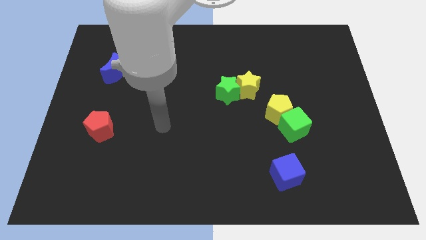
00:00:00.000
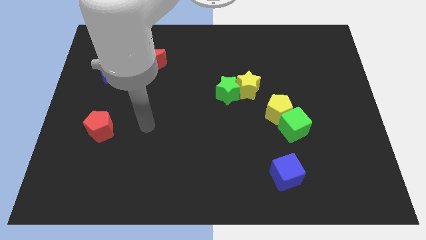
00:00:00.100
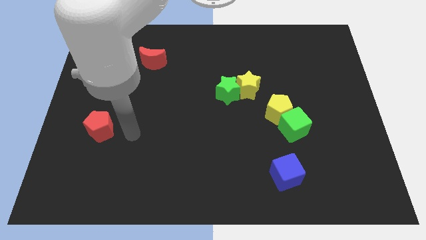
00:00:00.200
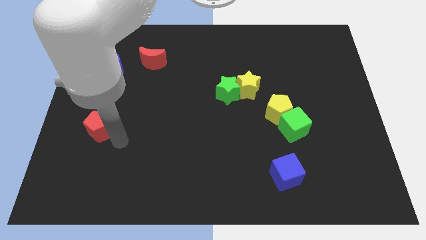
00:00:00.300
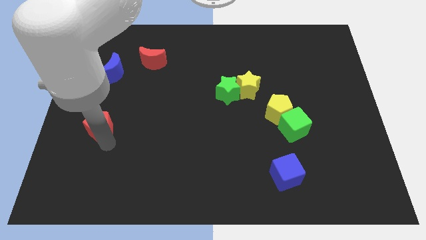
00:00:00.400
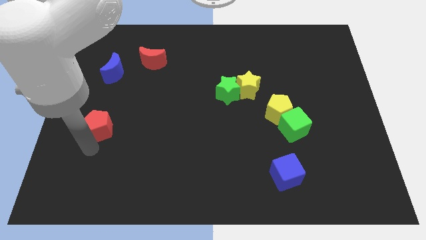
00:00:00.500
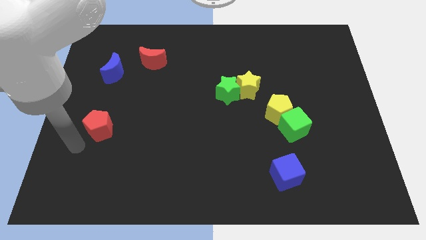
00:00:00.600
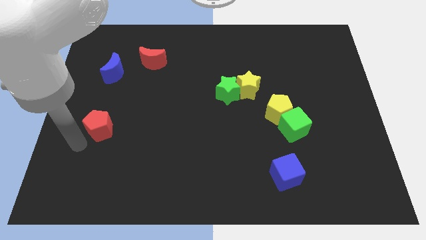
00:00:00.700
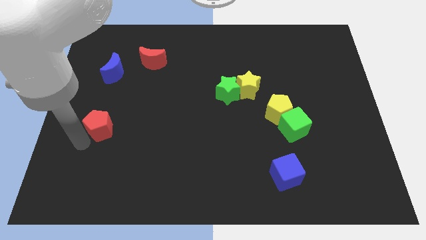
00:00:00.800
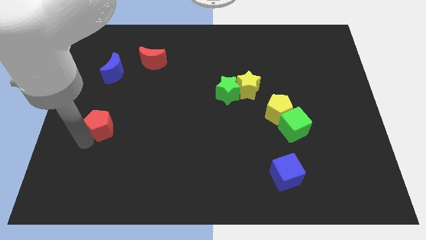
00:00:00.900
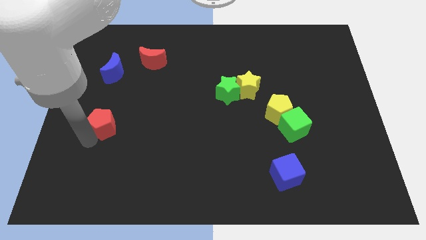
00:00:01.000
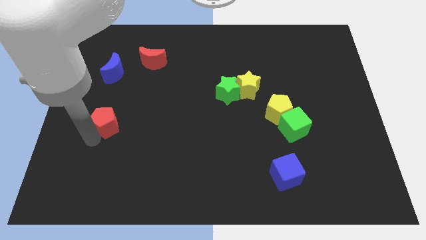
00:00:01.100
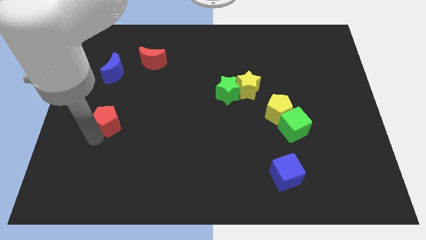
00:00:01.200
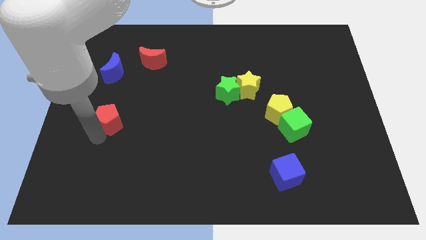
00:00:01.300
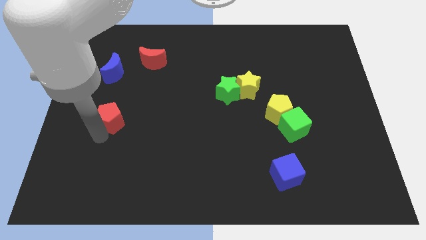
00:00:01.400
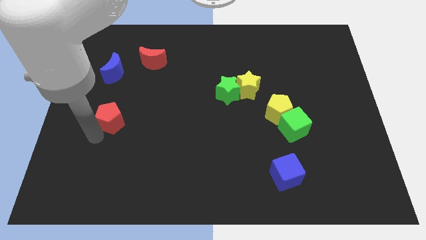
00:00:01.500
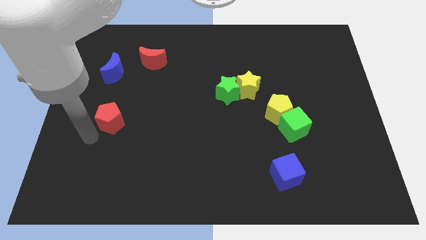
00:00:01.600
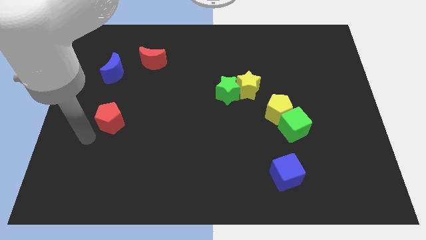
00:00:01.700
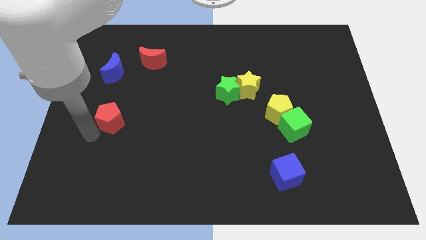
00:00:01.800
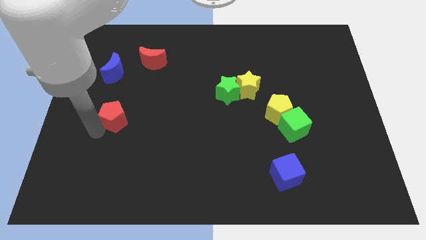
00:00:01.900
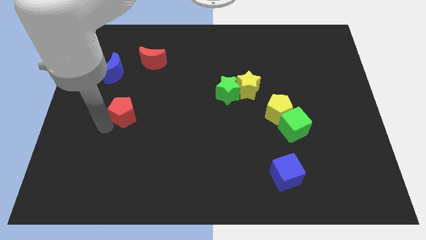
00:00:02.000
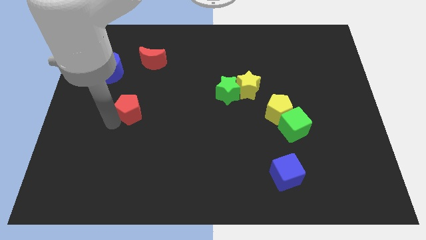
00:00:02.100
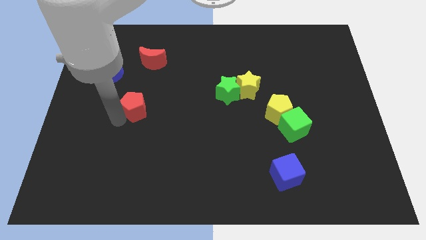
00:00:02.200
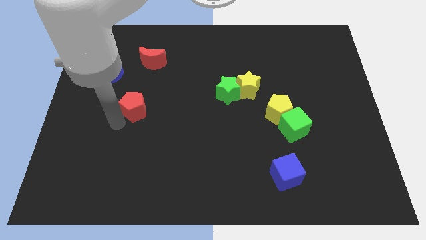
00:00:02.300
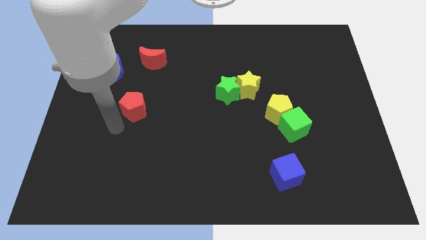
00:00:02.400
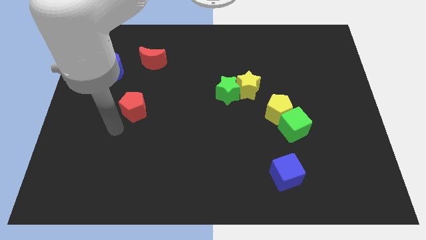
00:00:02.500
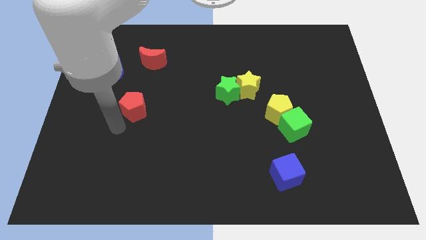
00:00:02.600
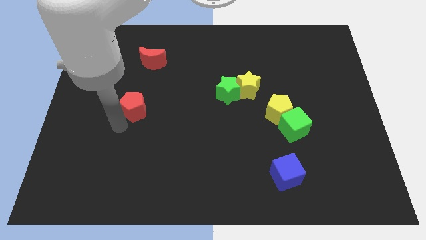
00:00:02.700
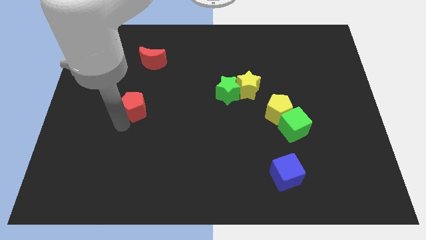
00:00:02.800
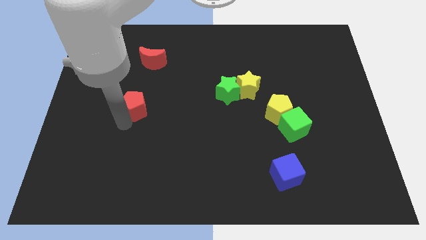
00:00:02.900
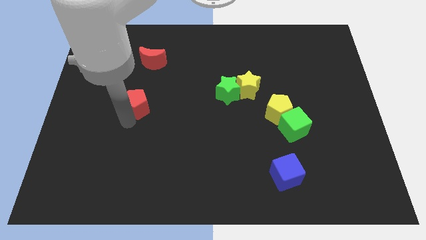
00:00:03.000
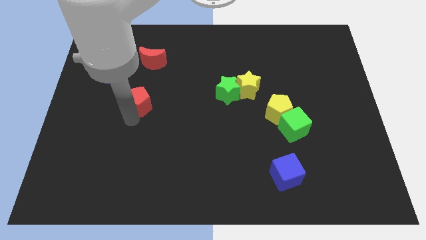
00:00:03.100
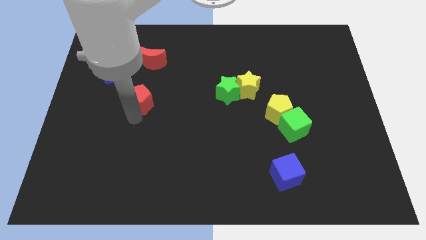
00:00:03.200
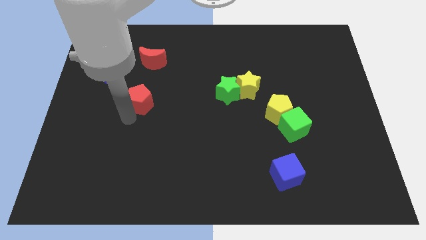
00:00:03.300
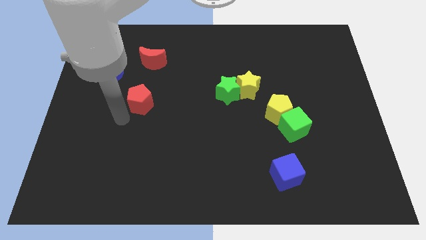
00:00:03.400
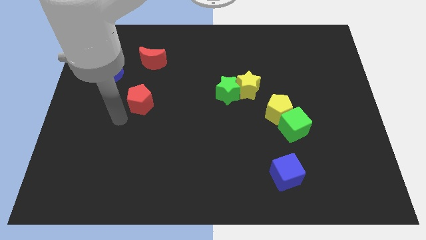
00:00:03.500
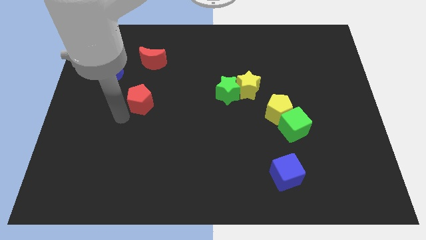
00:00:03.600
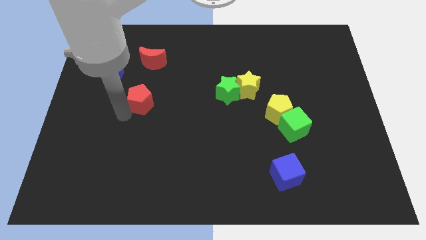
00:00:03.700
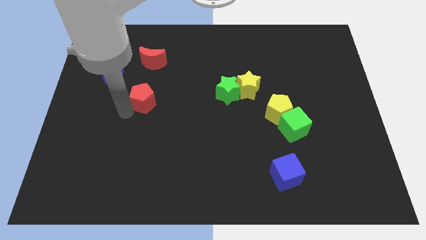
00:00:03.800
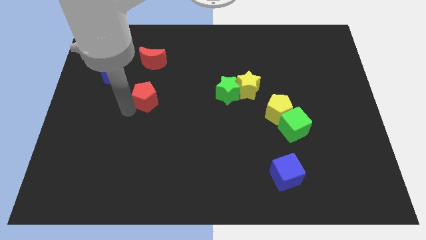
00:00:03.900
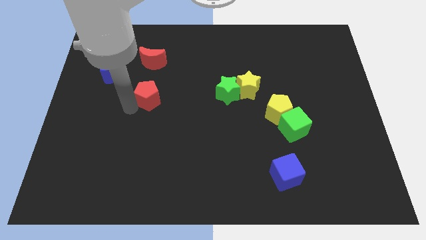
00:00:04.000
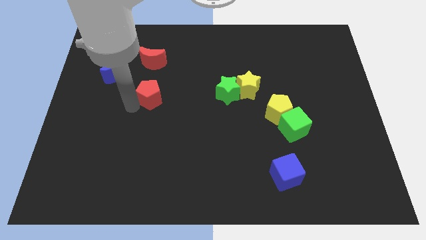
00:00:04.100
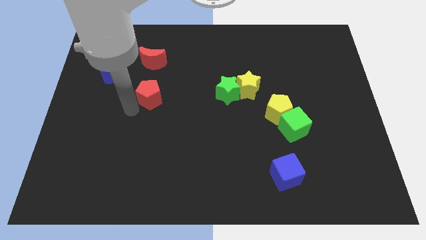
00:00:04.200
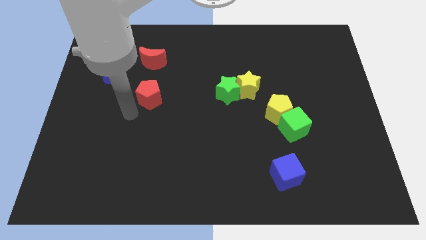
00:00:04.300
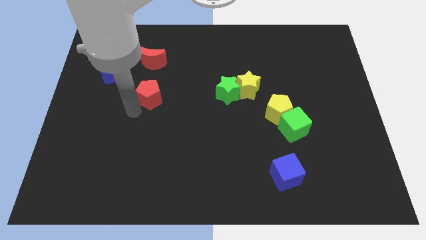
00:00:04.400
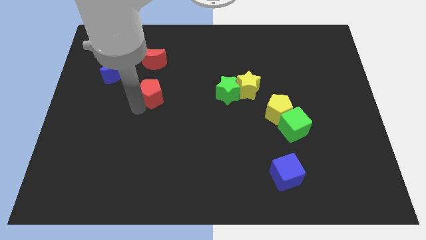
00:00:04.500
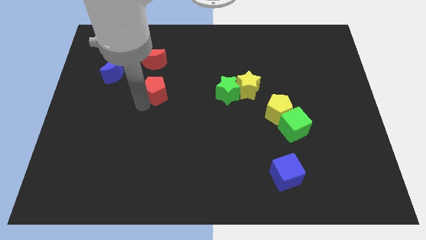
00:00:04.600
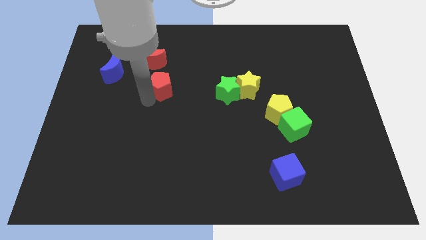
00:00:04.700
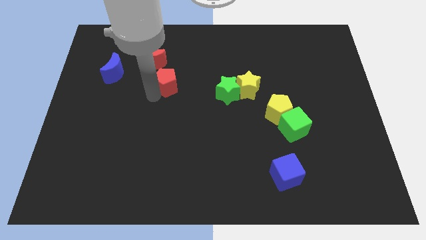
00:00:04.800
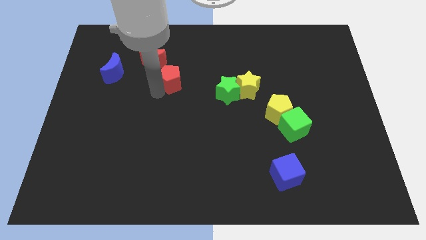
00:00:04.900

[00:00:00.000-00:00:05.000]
push the red pentagon diagonally up and to the right

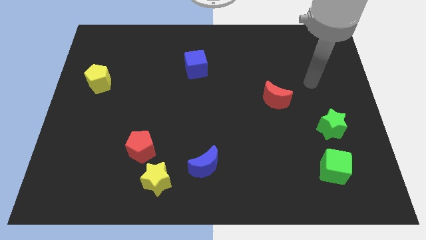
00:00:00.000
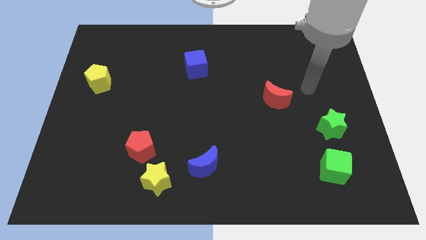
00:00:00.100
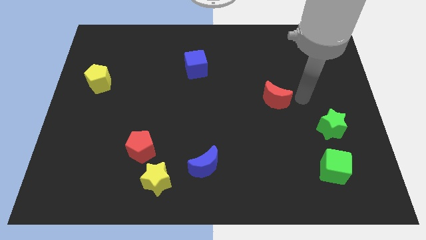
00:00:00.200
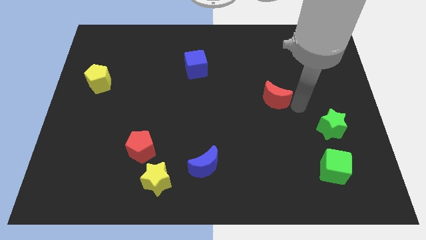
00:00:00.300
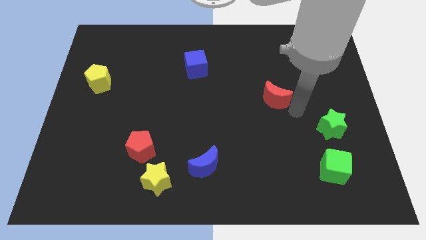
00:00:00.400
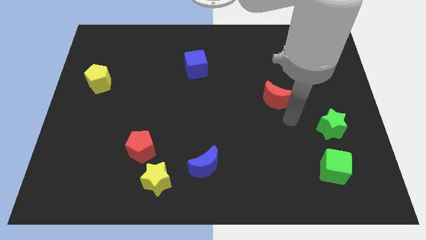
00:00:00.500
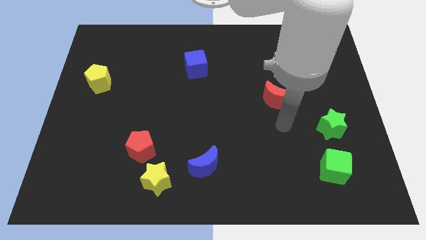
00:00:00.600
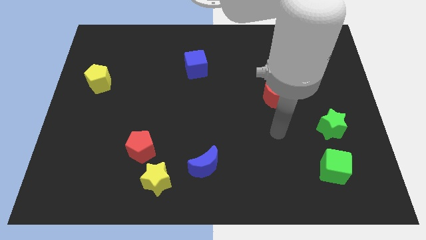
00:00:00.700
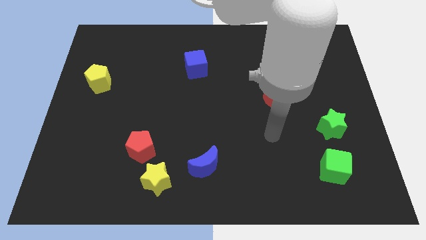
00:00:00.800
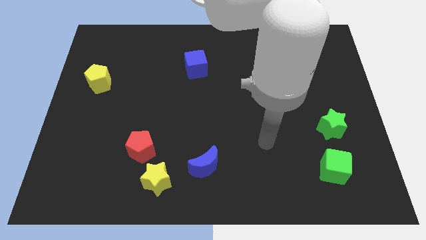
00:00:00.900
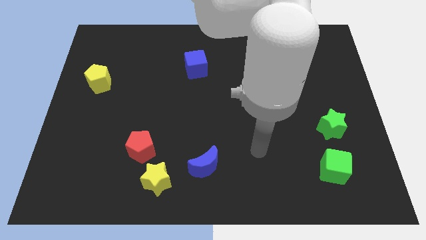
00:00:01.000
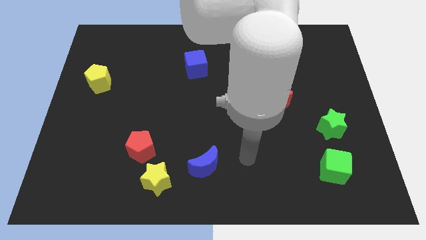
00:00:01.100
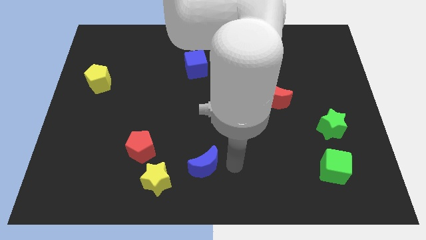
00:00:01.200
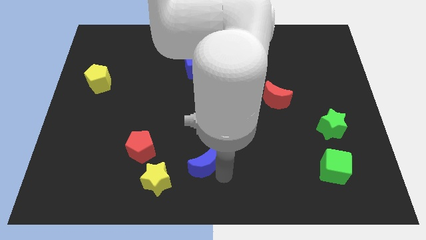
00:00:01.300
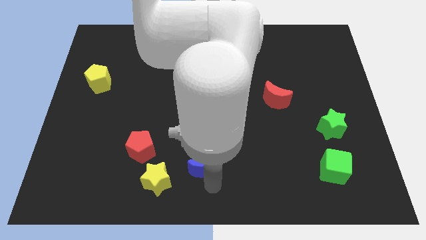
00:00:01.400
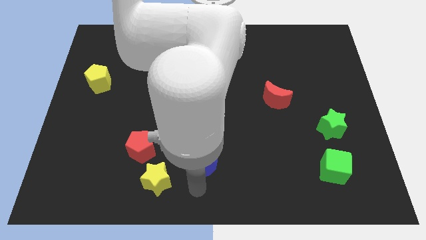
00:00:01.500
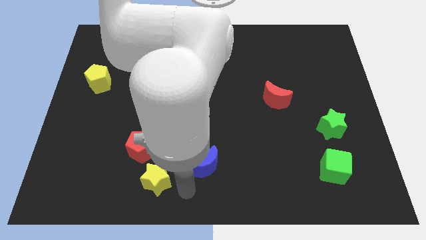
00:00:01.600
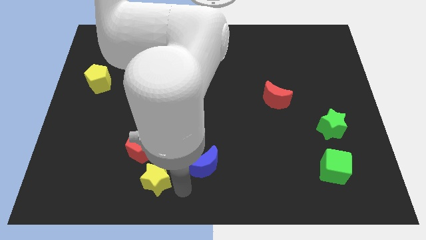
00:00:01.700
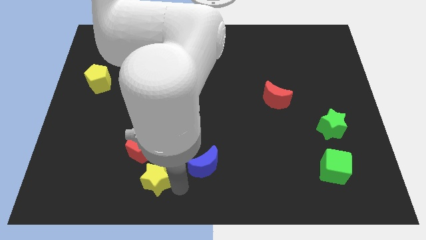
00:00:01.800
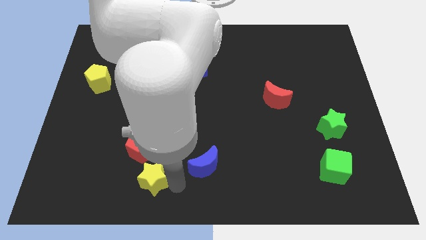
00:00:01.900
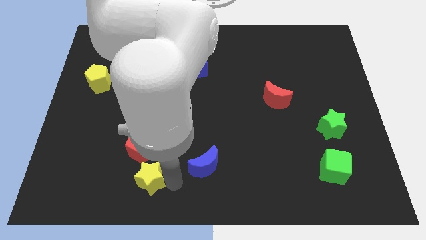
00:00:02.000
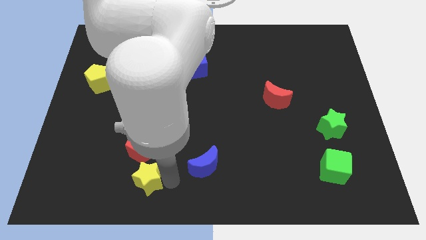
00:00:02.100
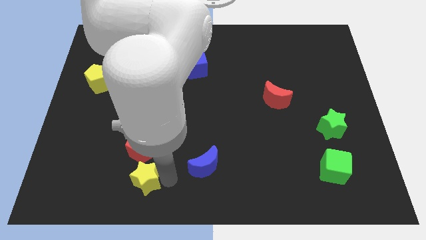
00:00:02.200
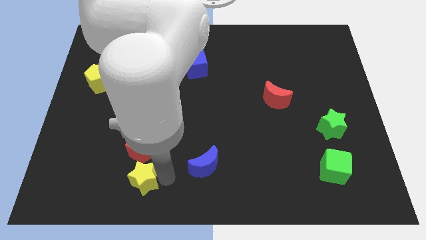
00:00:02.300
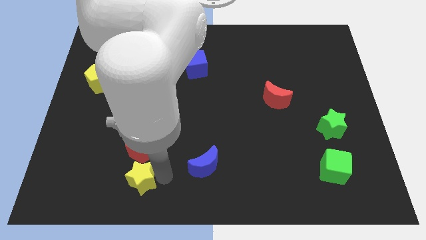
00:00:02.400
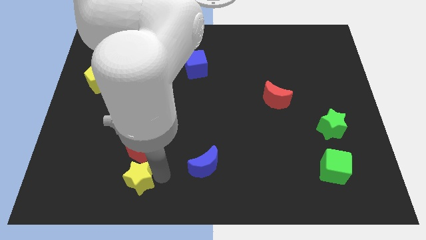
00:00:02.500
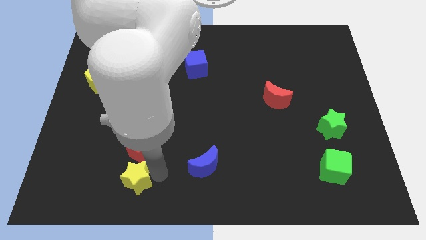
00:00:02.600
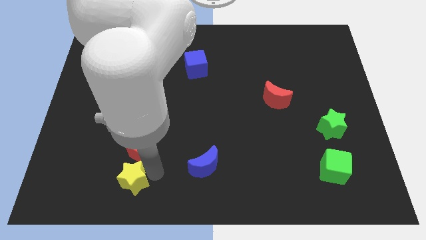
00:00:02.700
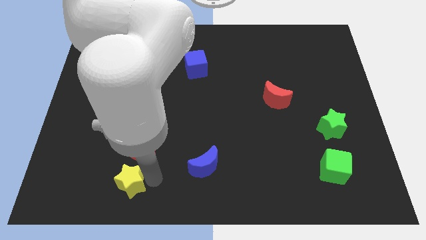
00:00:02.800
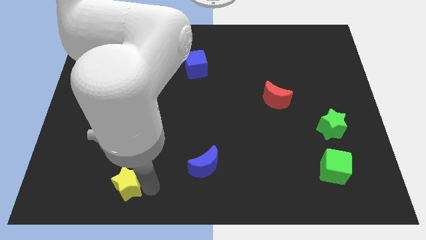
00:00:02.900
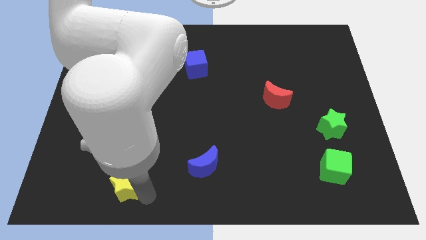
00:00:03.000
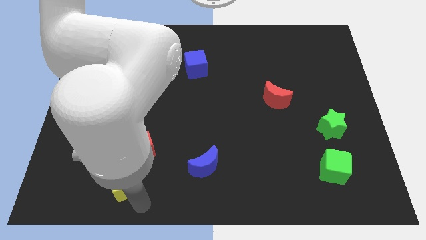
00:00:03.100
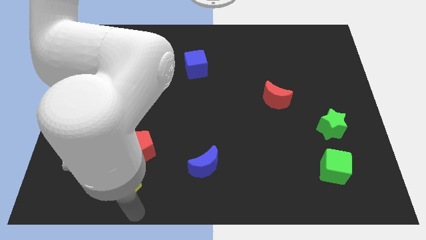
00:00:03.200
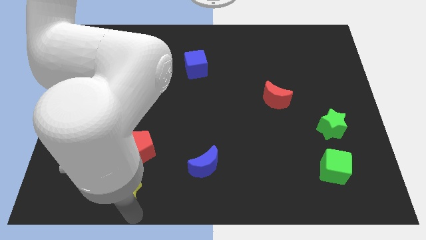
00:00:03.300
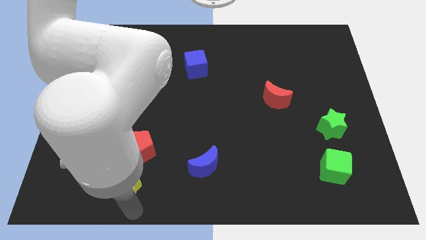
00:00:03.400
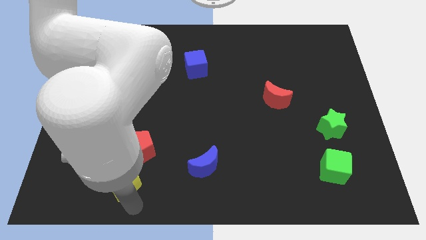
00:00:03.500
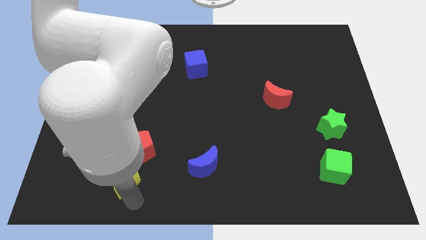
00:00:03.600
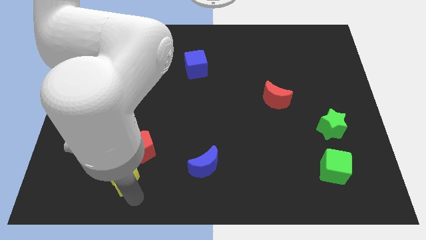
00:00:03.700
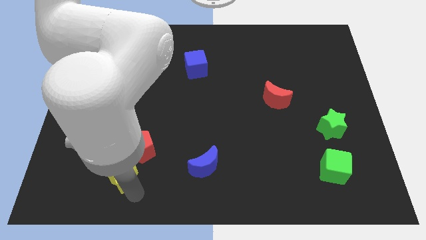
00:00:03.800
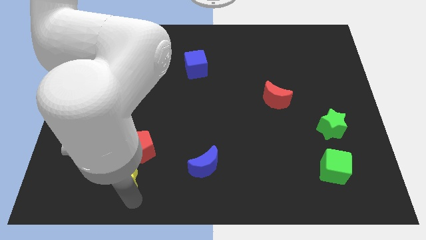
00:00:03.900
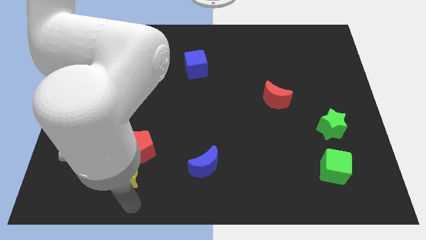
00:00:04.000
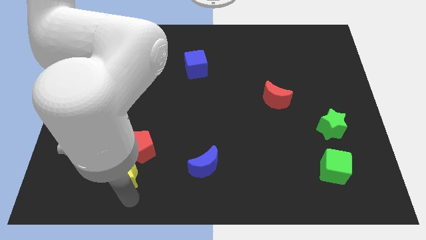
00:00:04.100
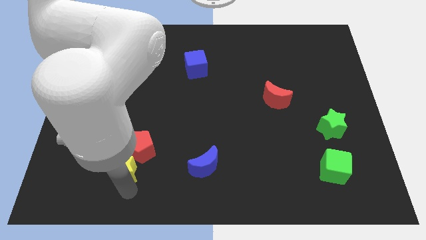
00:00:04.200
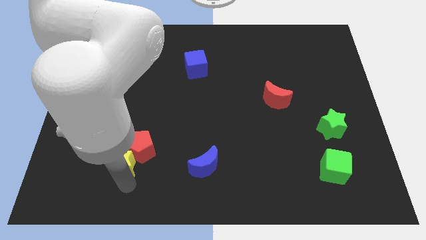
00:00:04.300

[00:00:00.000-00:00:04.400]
slightly slide the yellow star upwards and then to the left
